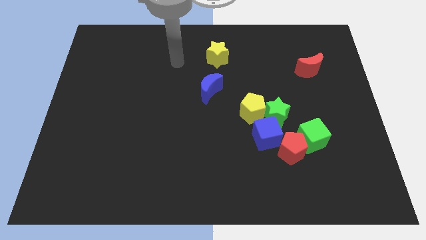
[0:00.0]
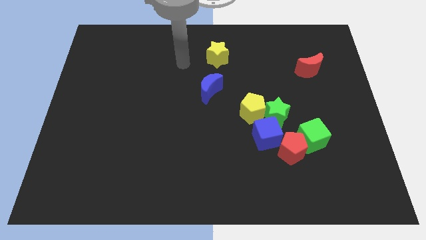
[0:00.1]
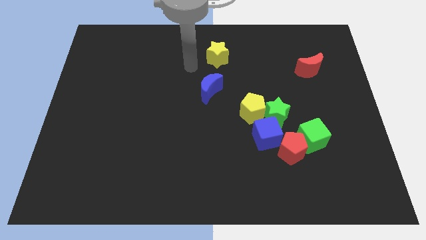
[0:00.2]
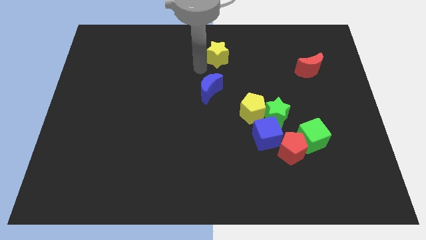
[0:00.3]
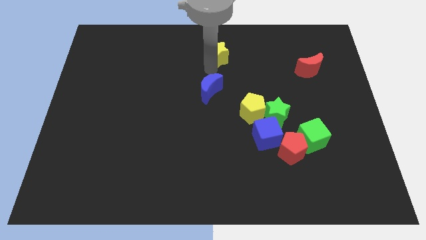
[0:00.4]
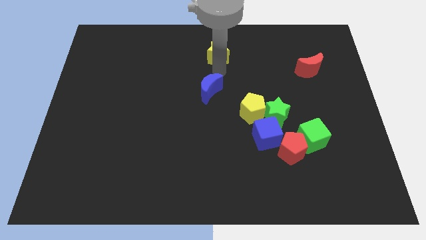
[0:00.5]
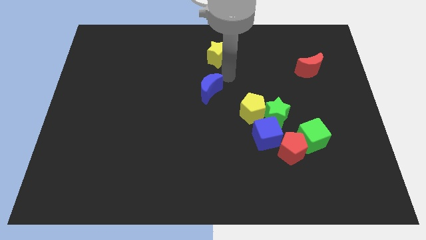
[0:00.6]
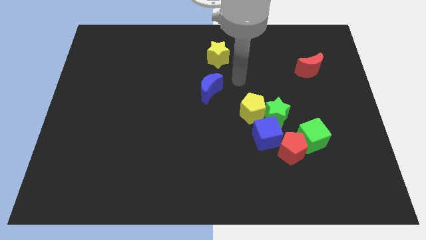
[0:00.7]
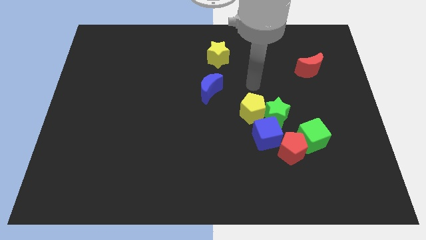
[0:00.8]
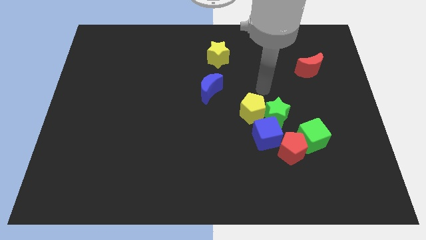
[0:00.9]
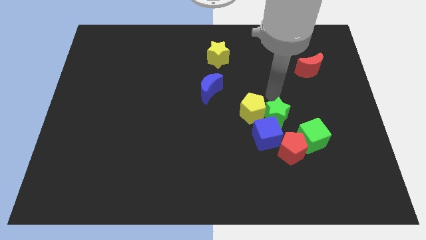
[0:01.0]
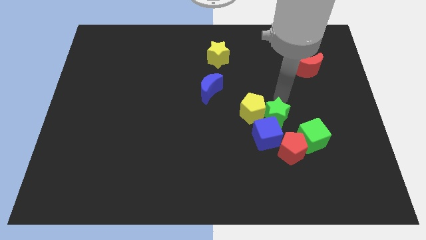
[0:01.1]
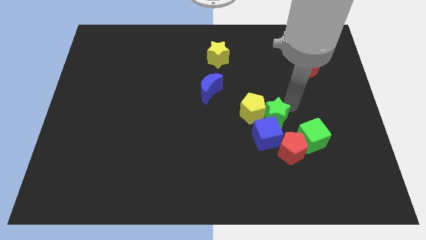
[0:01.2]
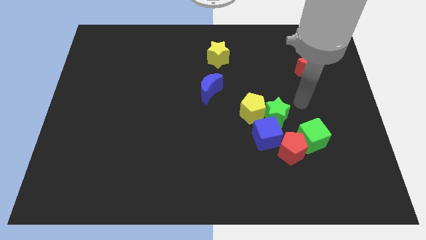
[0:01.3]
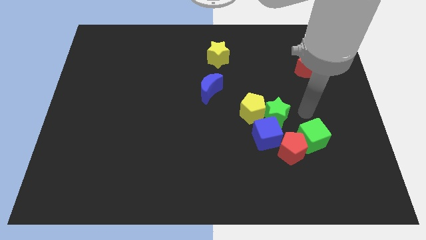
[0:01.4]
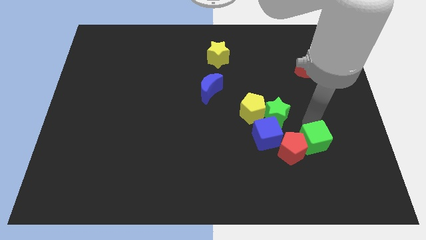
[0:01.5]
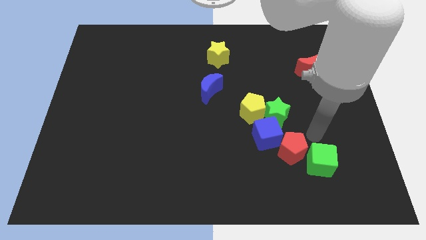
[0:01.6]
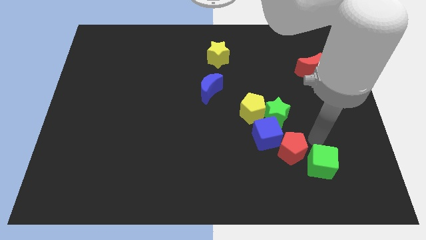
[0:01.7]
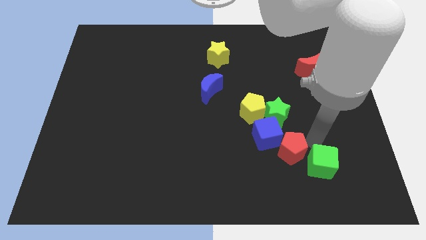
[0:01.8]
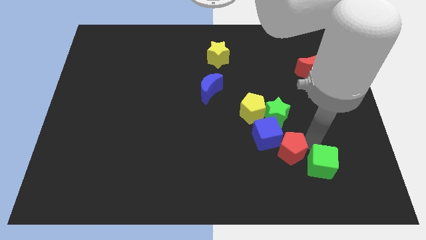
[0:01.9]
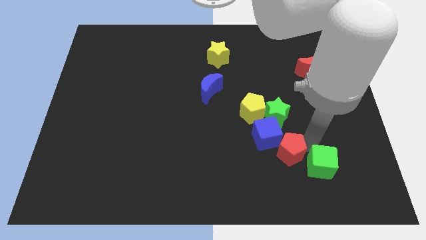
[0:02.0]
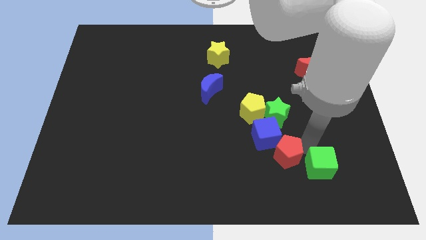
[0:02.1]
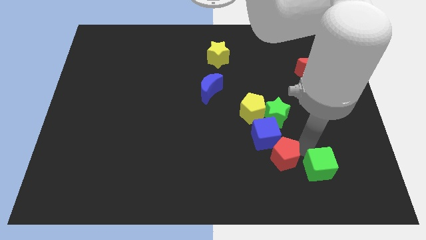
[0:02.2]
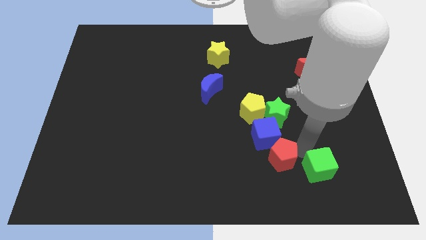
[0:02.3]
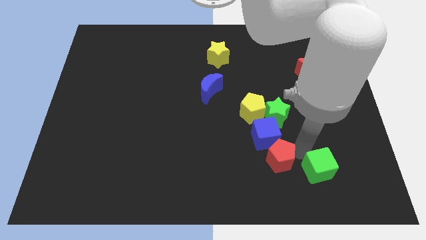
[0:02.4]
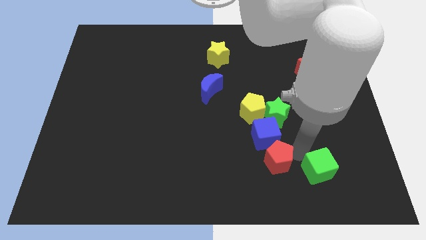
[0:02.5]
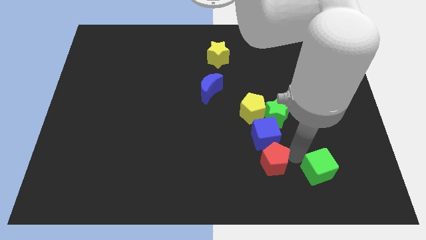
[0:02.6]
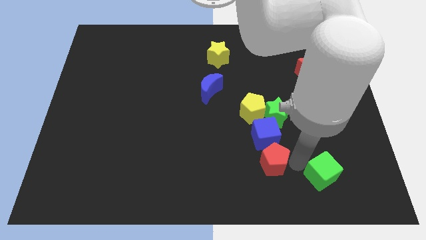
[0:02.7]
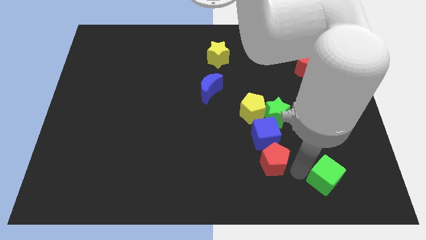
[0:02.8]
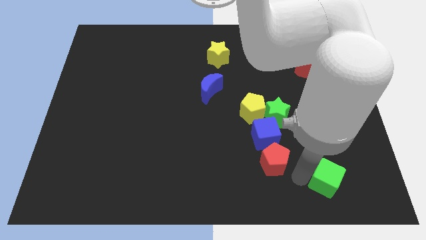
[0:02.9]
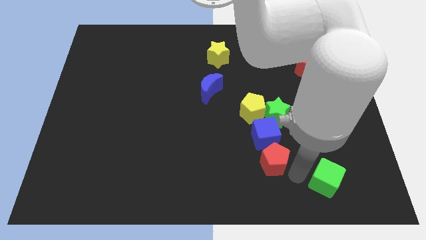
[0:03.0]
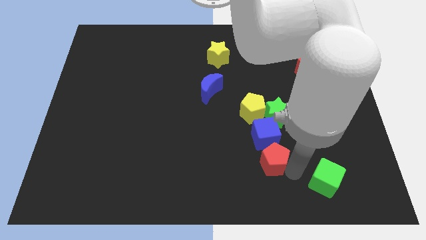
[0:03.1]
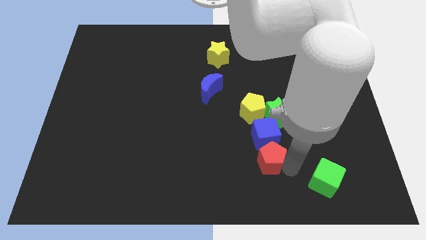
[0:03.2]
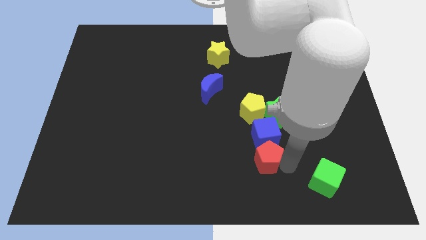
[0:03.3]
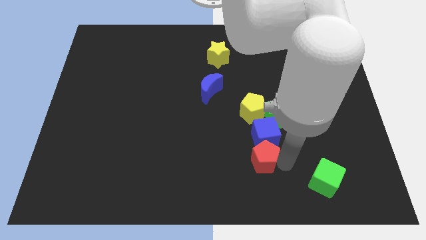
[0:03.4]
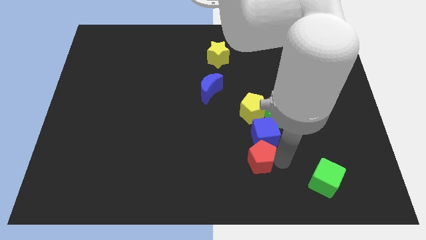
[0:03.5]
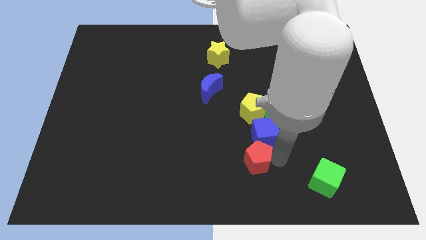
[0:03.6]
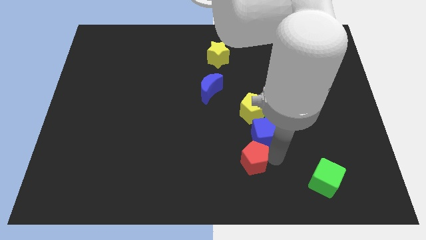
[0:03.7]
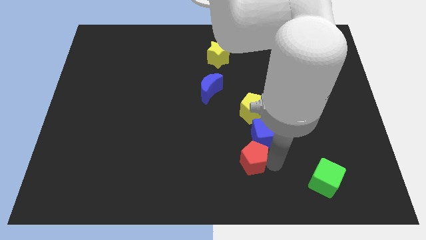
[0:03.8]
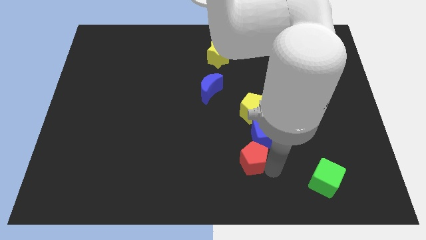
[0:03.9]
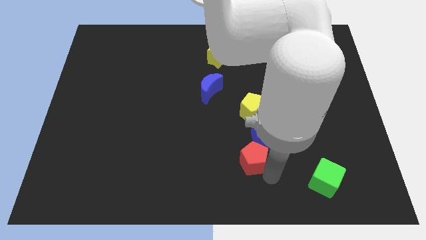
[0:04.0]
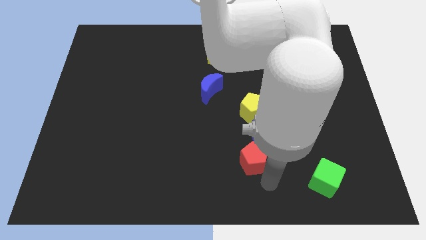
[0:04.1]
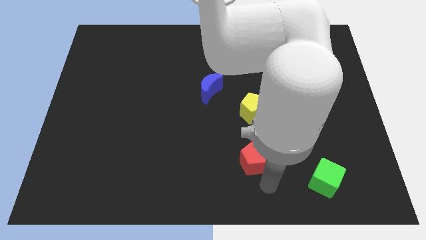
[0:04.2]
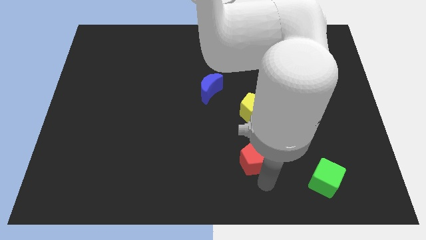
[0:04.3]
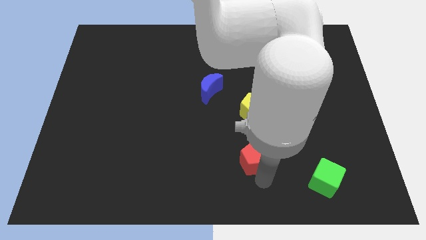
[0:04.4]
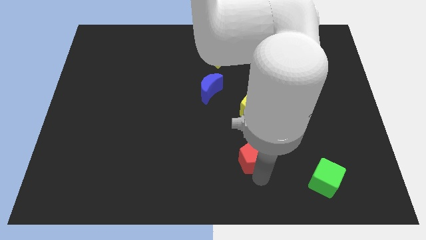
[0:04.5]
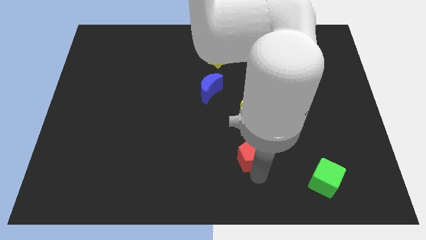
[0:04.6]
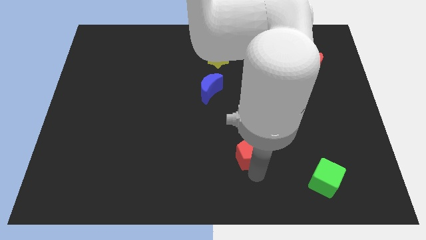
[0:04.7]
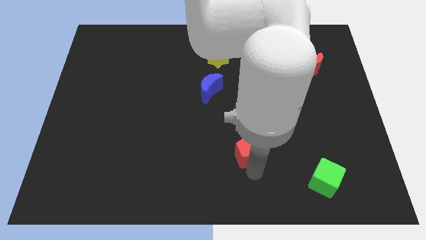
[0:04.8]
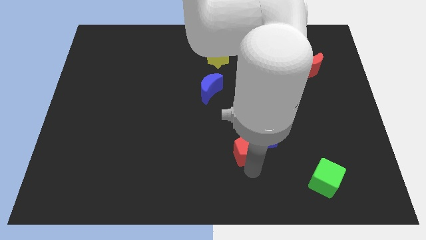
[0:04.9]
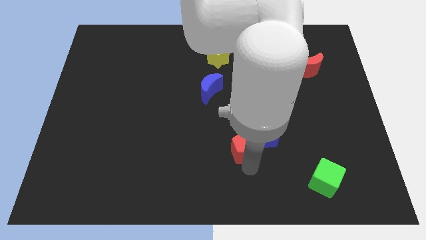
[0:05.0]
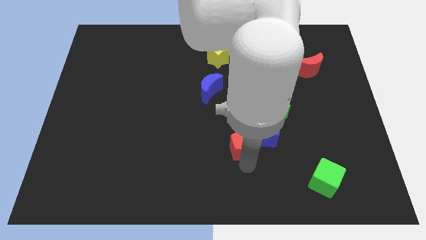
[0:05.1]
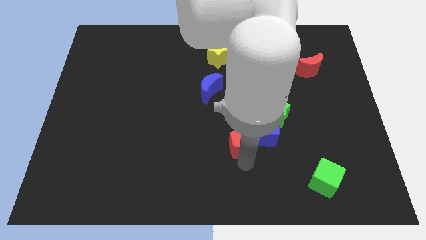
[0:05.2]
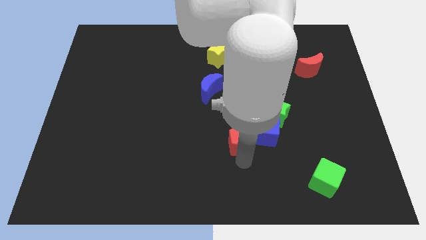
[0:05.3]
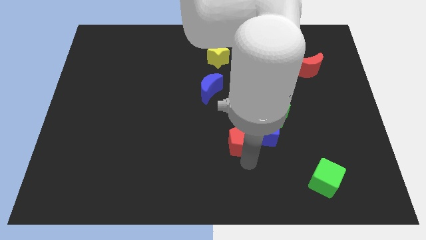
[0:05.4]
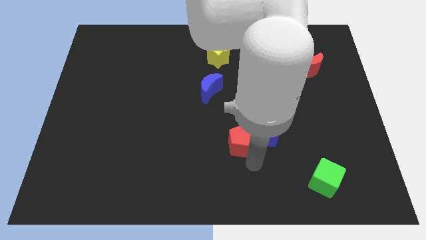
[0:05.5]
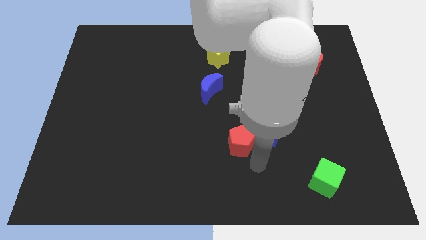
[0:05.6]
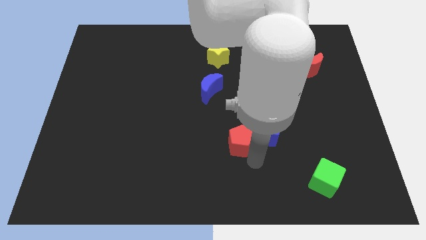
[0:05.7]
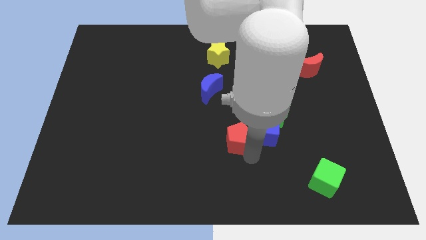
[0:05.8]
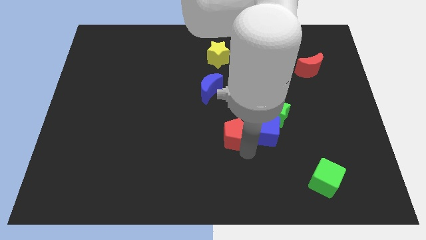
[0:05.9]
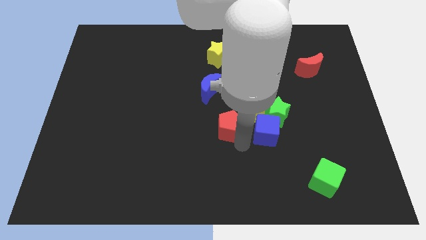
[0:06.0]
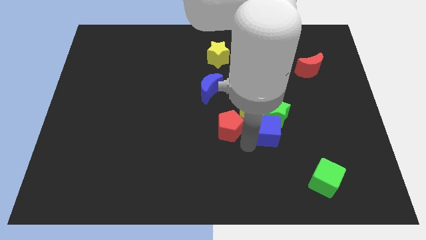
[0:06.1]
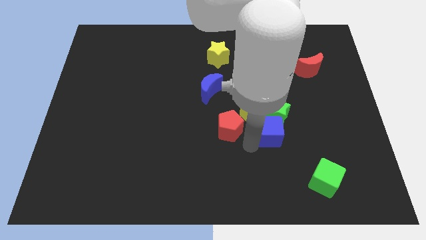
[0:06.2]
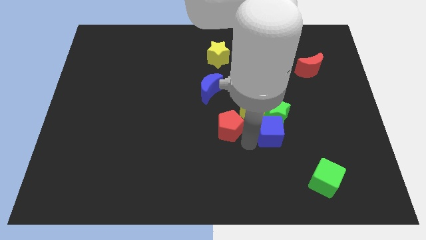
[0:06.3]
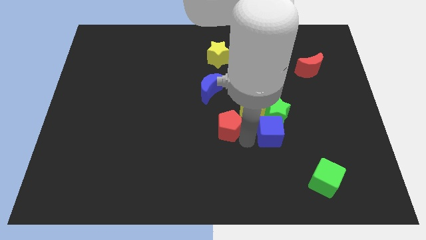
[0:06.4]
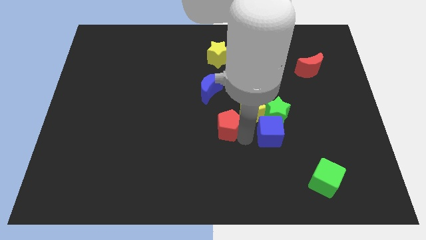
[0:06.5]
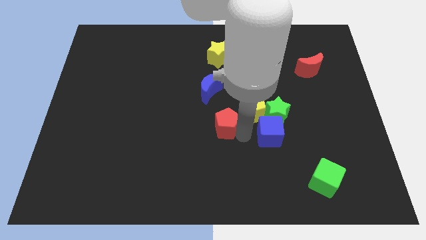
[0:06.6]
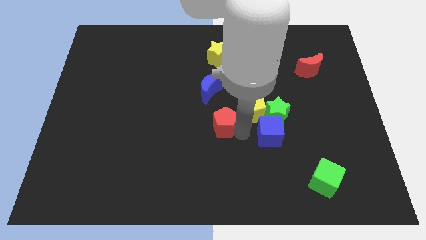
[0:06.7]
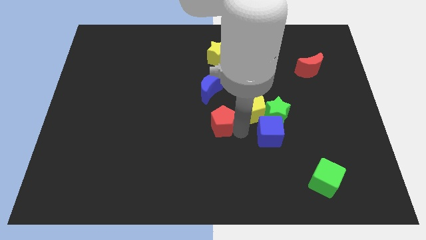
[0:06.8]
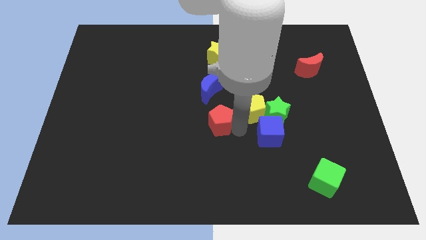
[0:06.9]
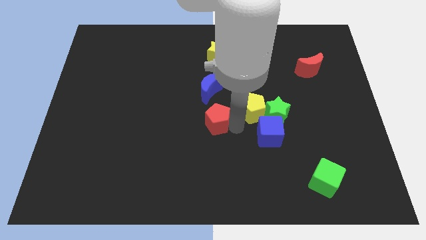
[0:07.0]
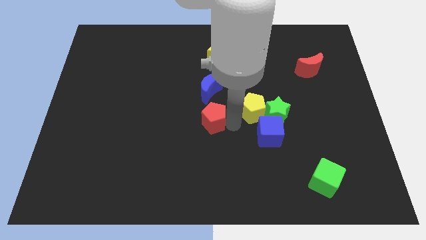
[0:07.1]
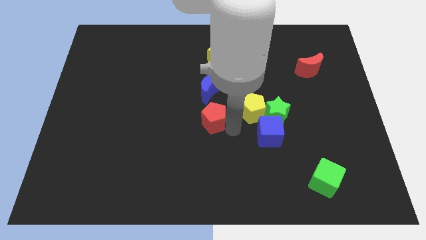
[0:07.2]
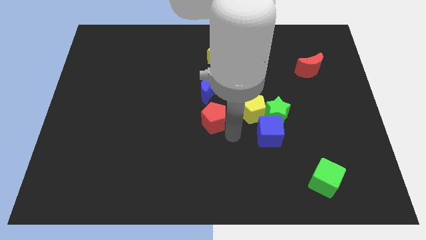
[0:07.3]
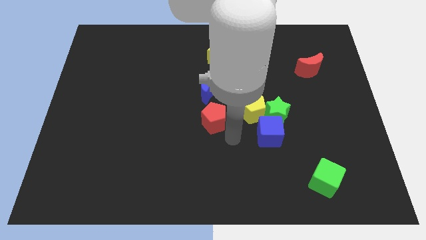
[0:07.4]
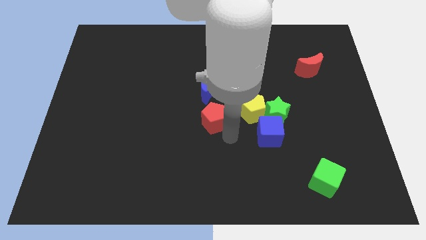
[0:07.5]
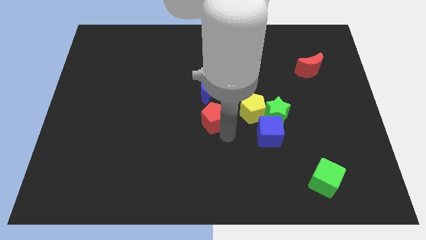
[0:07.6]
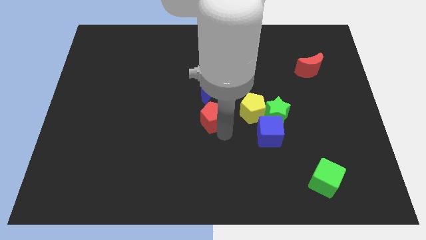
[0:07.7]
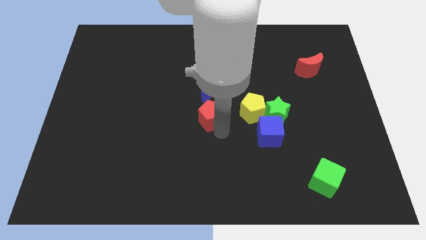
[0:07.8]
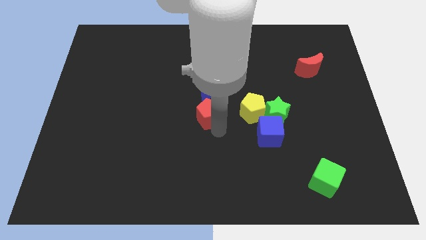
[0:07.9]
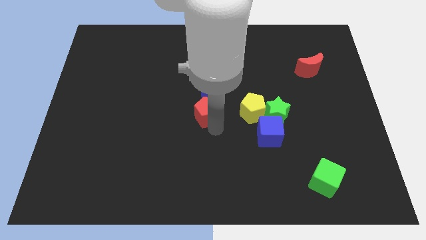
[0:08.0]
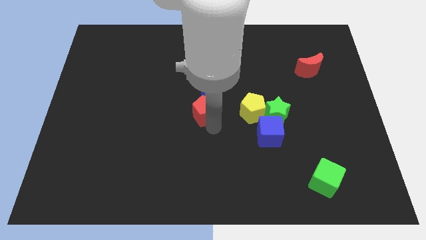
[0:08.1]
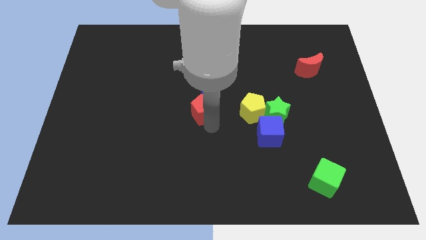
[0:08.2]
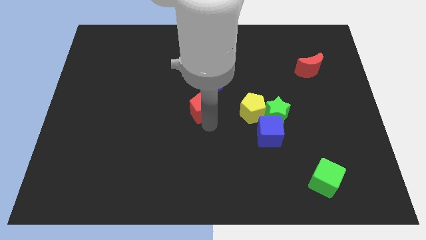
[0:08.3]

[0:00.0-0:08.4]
slide the red pentagon up and to the left diagonally
